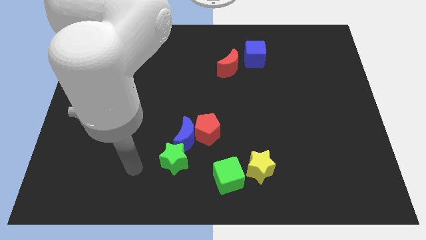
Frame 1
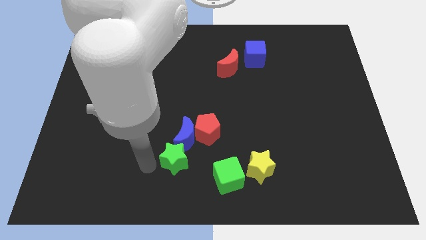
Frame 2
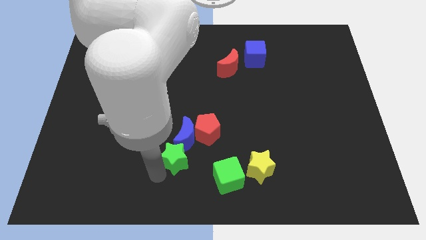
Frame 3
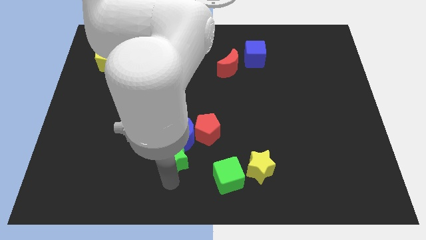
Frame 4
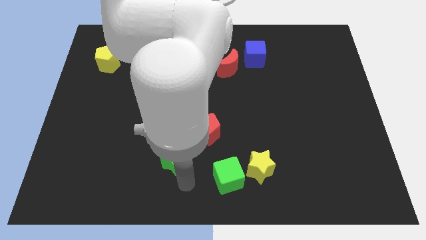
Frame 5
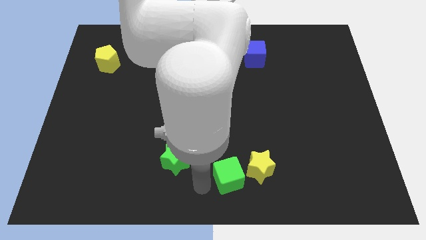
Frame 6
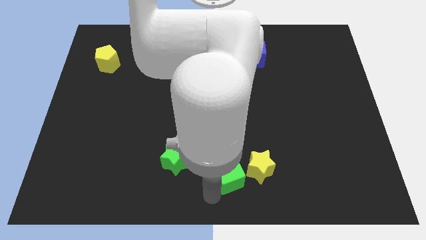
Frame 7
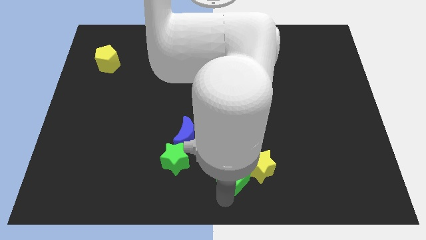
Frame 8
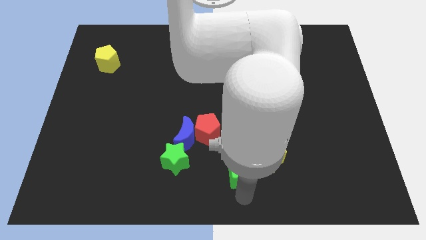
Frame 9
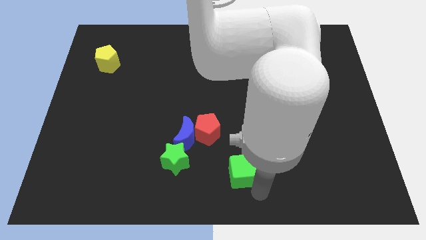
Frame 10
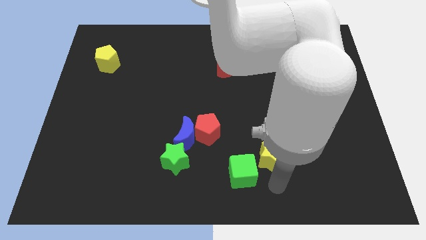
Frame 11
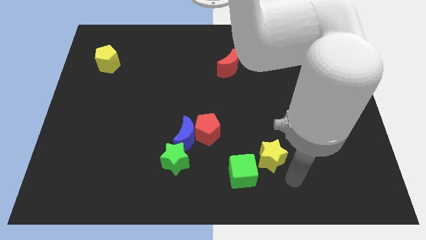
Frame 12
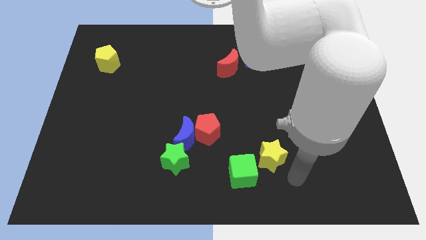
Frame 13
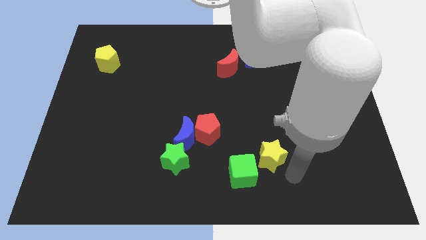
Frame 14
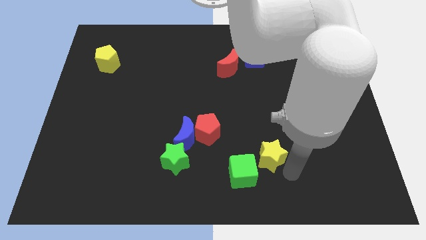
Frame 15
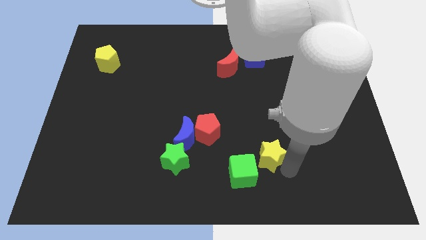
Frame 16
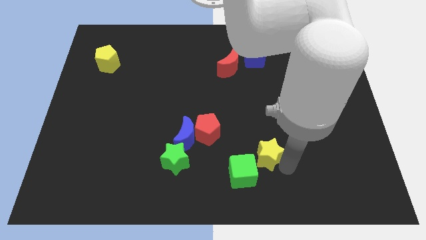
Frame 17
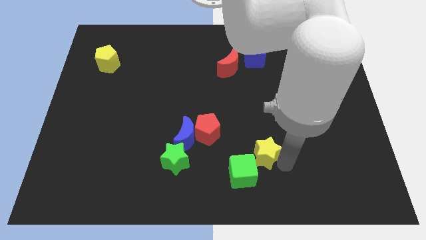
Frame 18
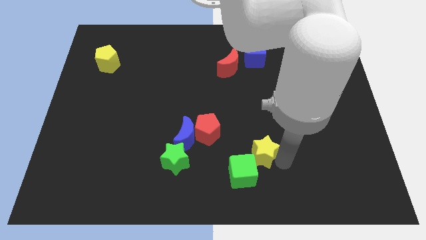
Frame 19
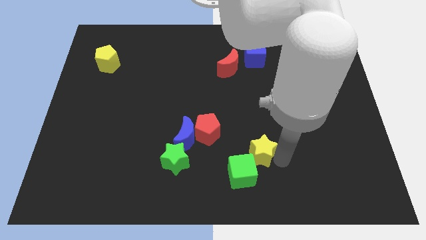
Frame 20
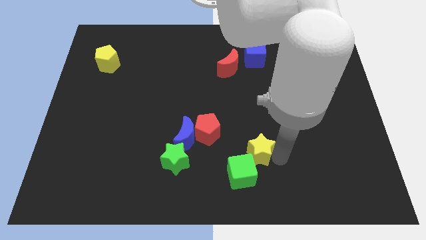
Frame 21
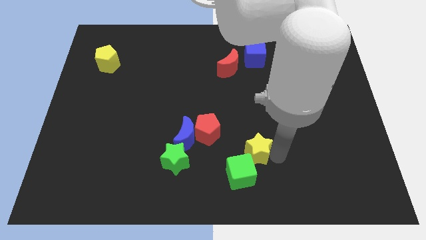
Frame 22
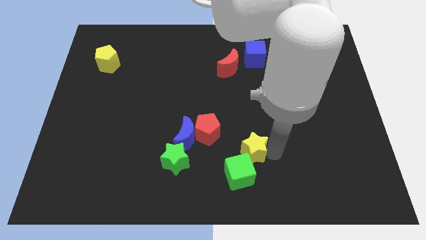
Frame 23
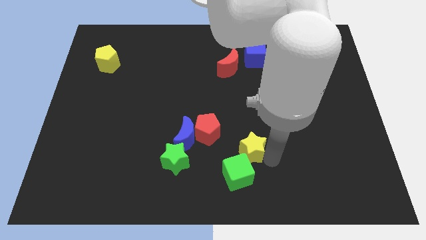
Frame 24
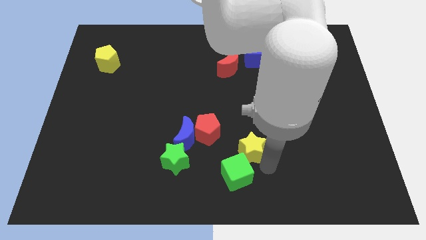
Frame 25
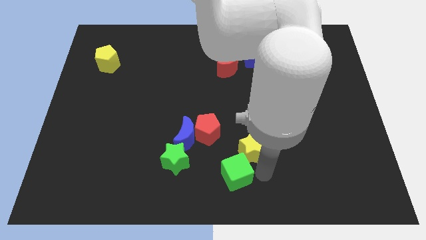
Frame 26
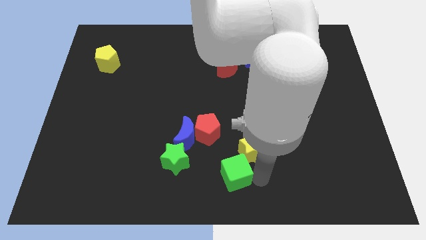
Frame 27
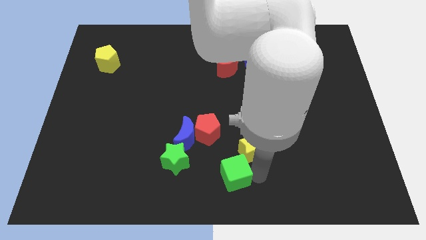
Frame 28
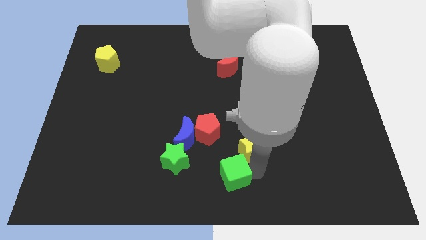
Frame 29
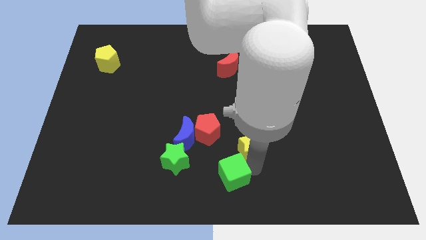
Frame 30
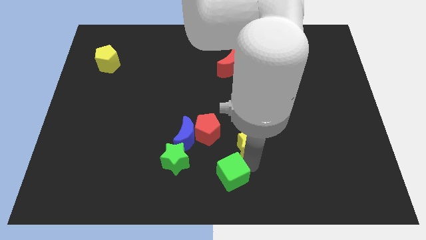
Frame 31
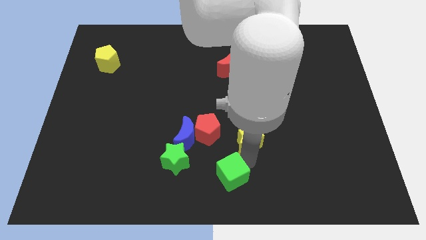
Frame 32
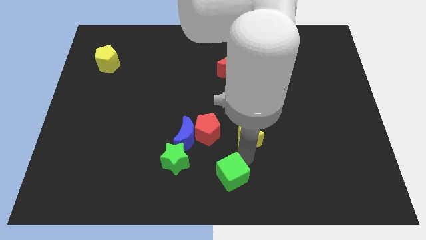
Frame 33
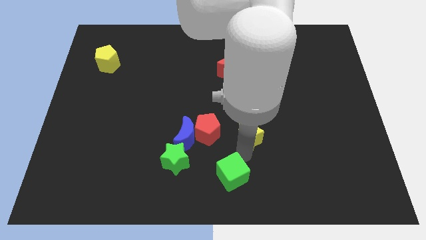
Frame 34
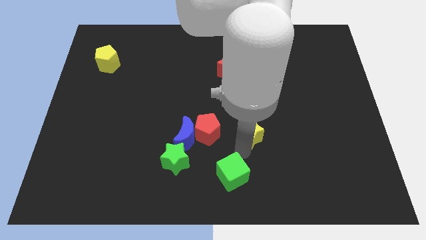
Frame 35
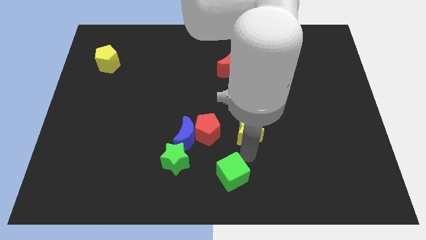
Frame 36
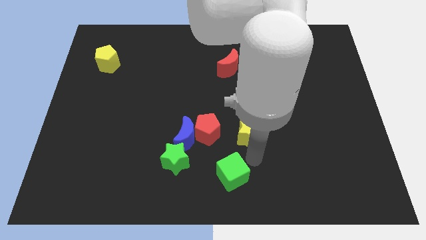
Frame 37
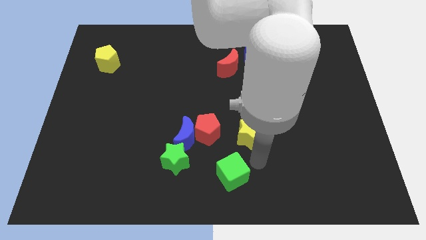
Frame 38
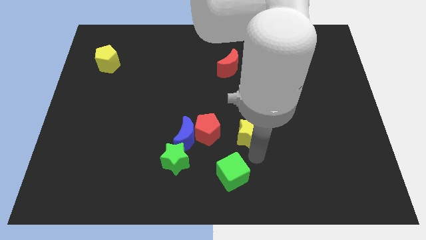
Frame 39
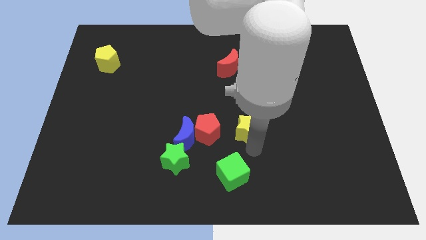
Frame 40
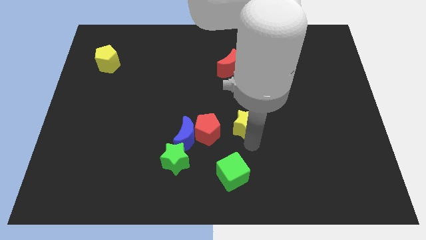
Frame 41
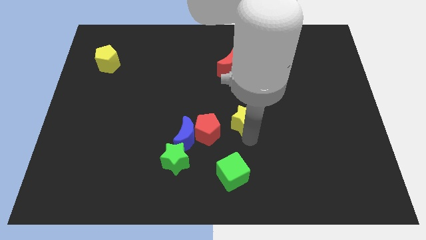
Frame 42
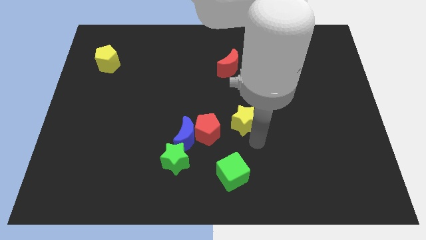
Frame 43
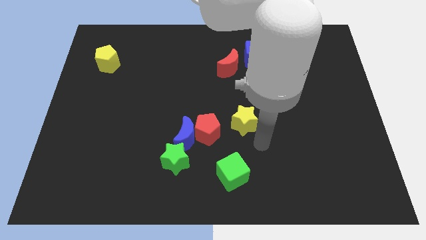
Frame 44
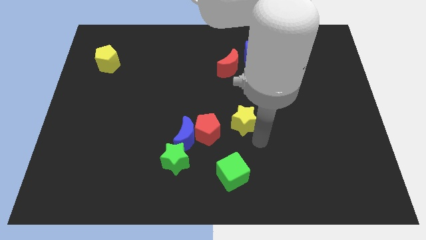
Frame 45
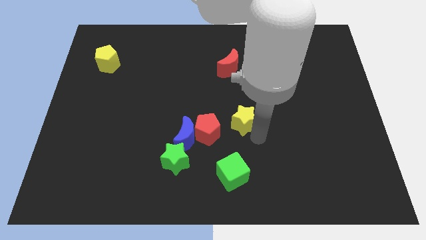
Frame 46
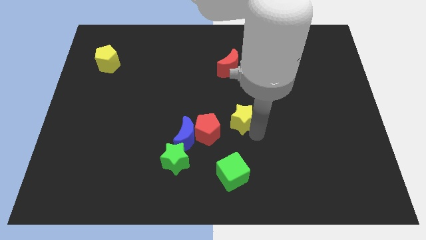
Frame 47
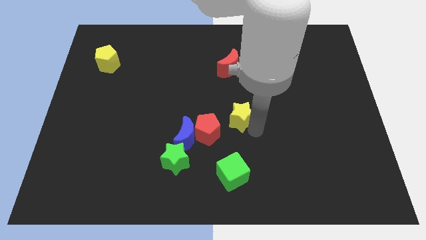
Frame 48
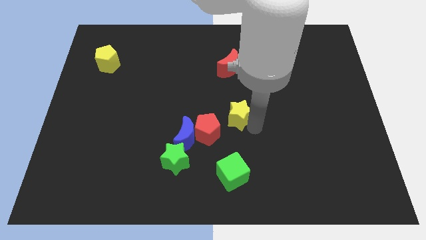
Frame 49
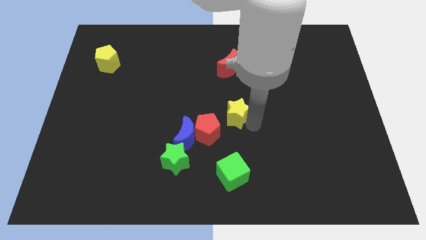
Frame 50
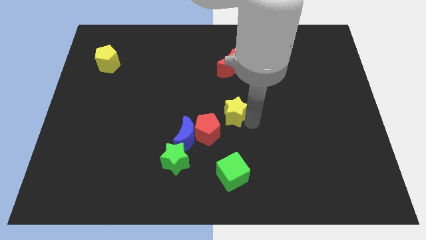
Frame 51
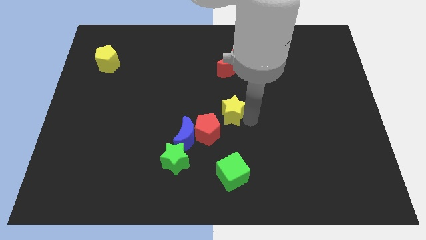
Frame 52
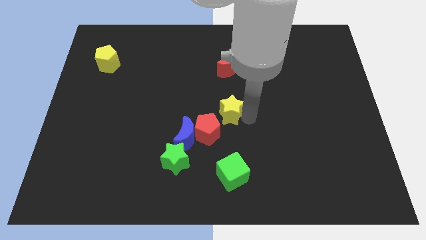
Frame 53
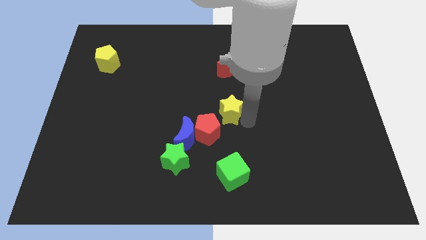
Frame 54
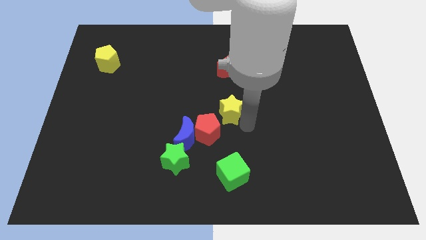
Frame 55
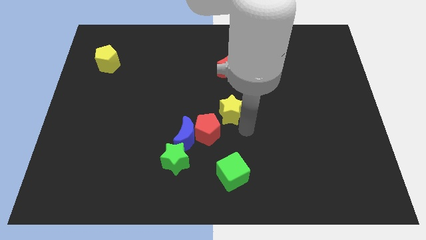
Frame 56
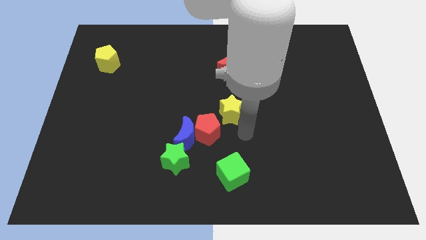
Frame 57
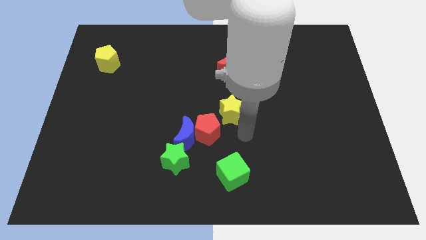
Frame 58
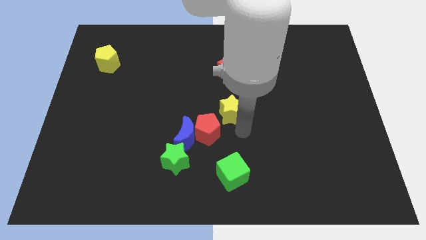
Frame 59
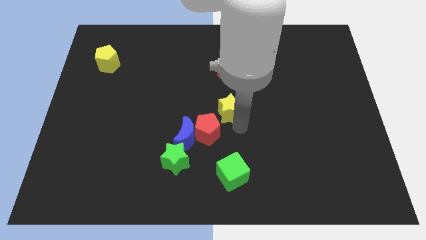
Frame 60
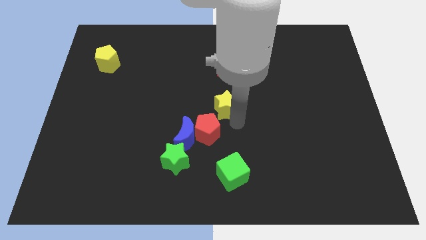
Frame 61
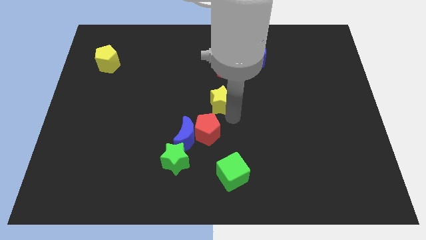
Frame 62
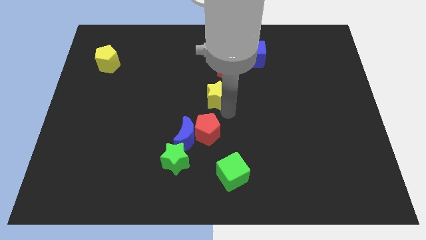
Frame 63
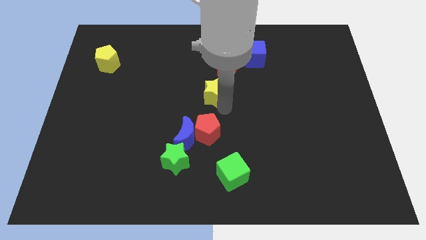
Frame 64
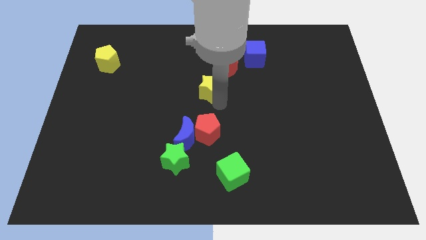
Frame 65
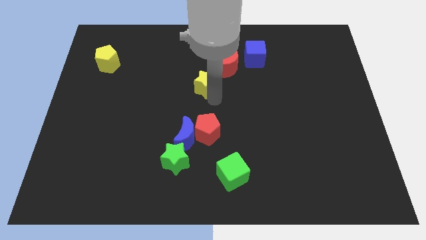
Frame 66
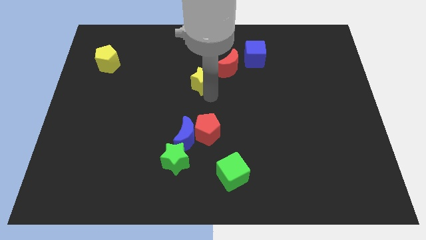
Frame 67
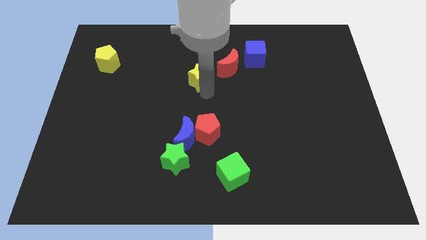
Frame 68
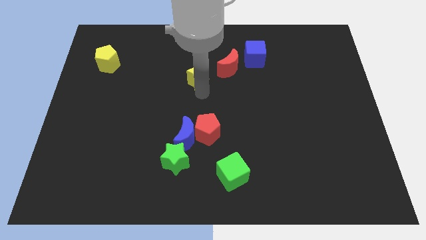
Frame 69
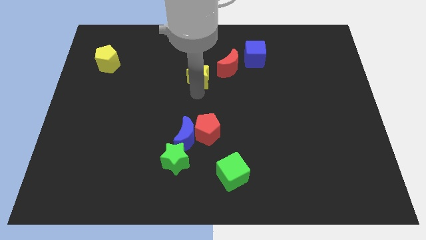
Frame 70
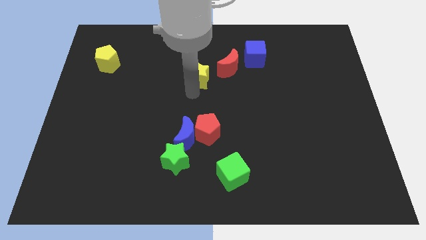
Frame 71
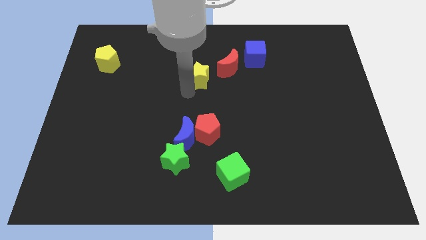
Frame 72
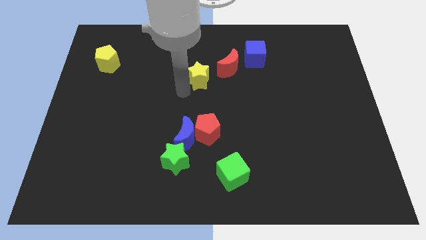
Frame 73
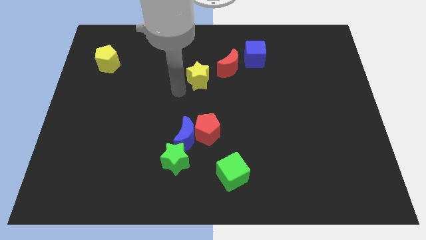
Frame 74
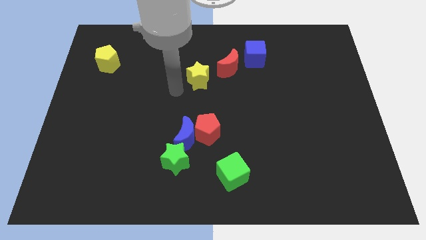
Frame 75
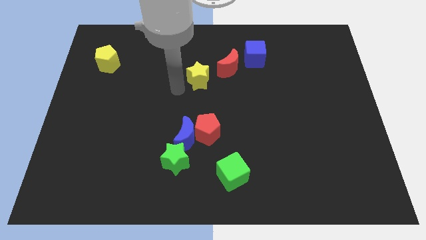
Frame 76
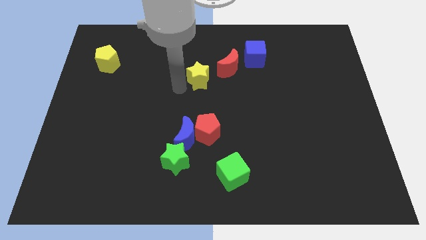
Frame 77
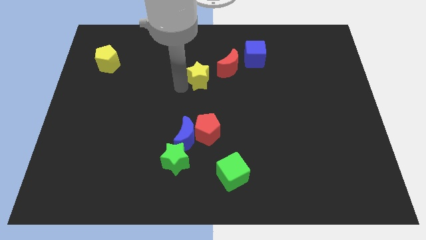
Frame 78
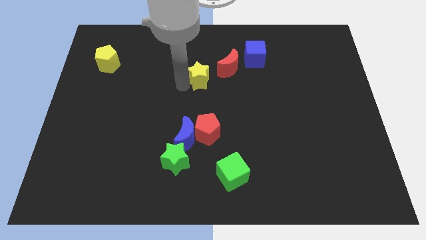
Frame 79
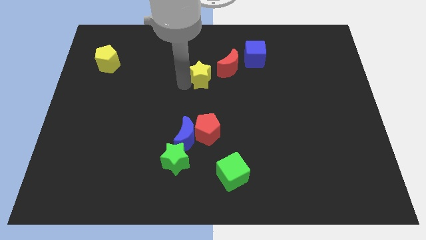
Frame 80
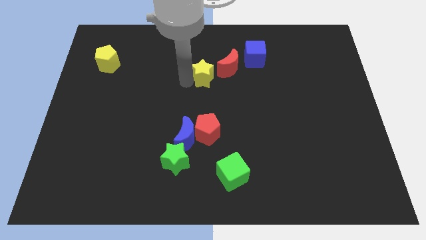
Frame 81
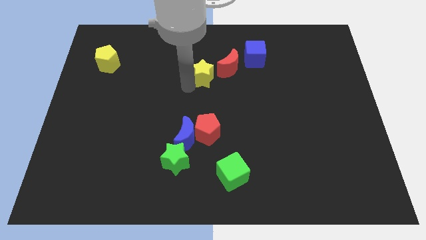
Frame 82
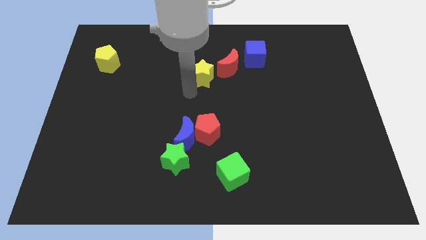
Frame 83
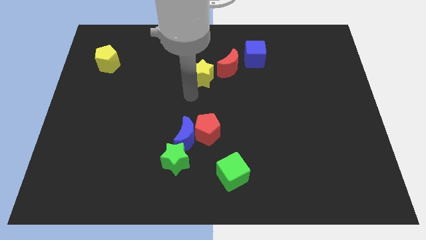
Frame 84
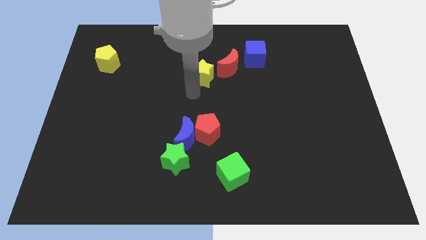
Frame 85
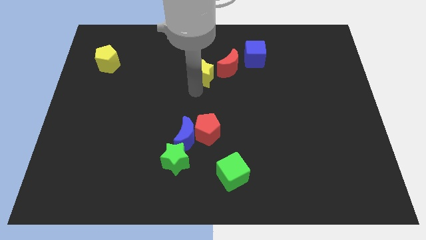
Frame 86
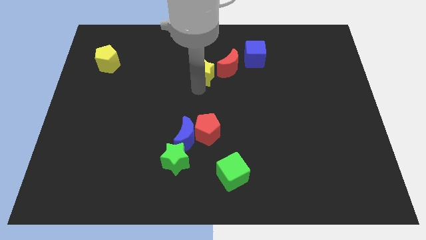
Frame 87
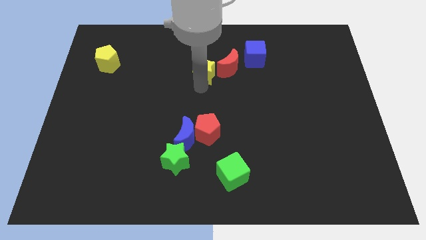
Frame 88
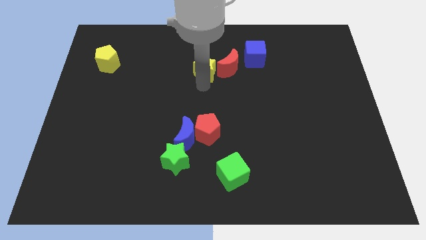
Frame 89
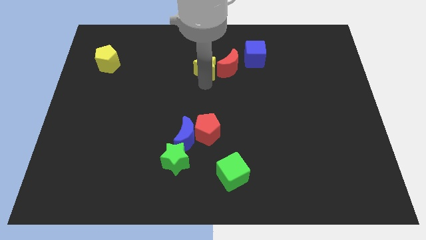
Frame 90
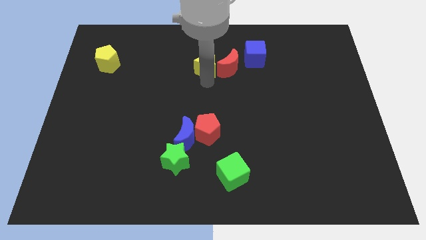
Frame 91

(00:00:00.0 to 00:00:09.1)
move the yellow star just left of the blue cube
